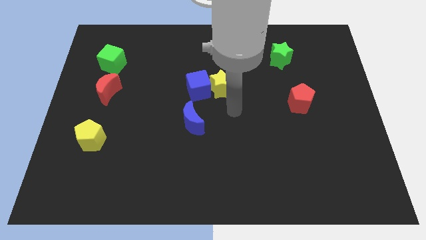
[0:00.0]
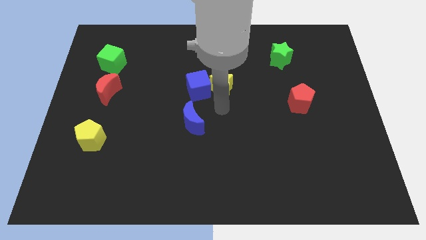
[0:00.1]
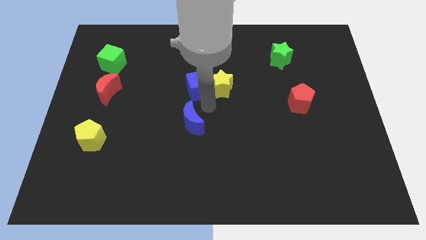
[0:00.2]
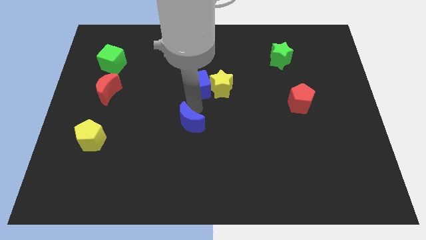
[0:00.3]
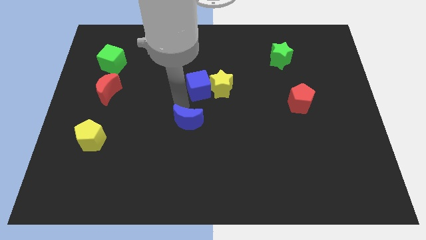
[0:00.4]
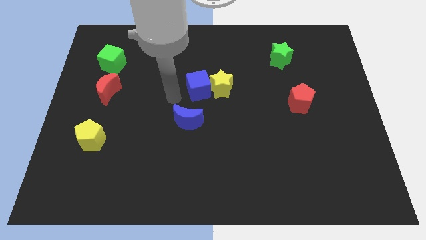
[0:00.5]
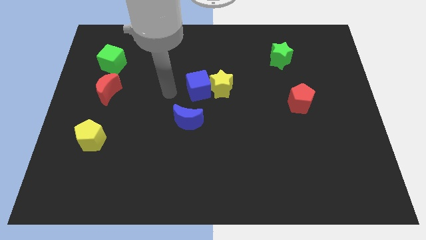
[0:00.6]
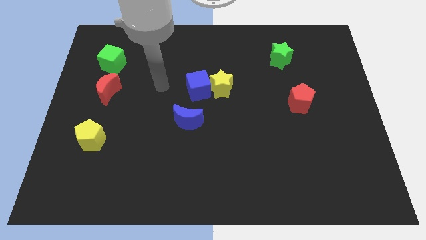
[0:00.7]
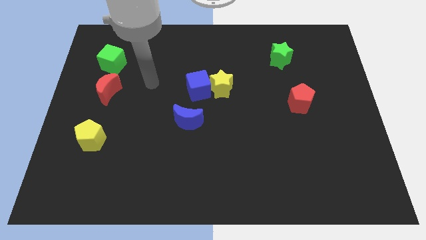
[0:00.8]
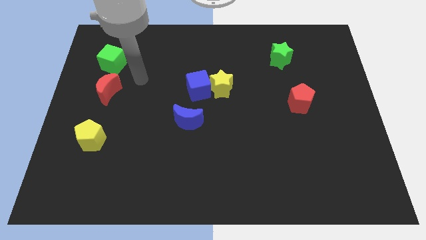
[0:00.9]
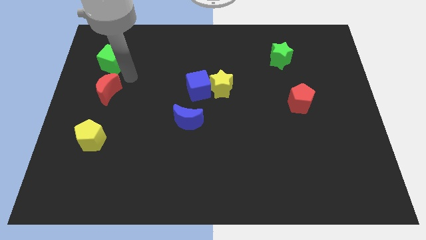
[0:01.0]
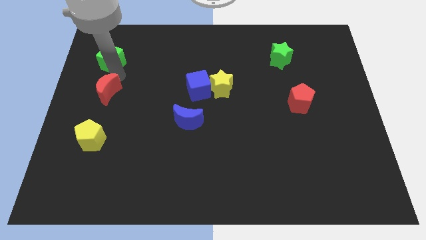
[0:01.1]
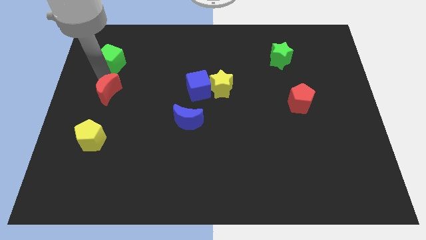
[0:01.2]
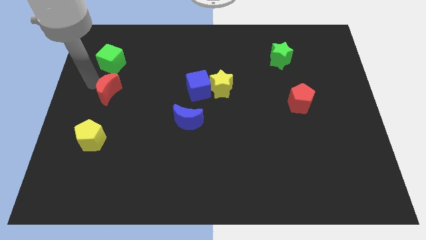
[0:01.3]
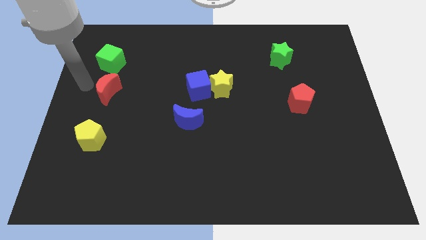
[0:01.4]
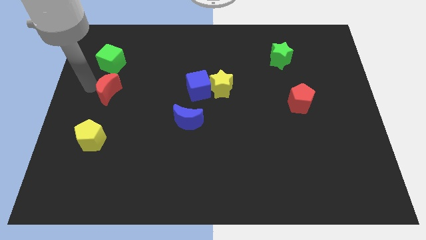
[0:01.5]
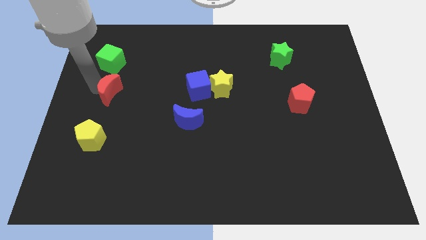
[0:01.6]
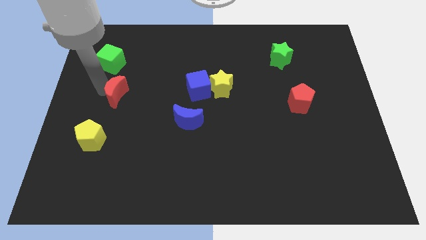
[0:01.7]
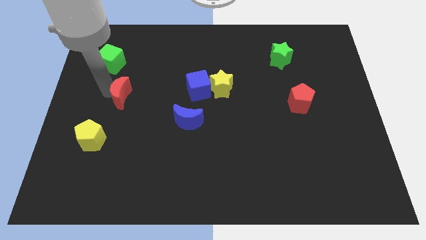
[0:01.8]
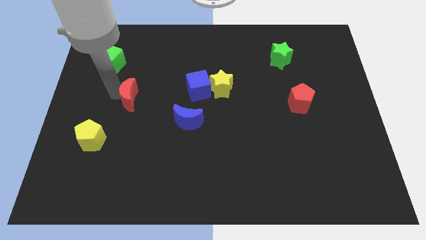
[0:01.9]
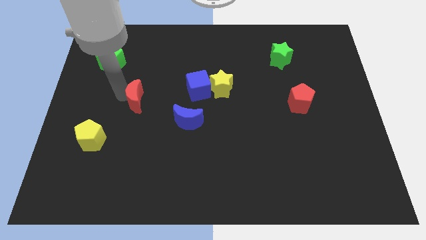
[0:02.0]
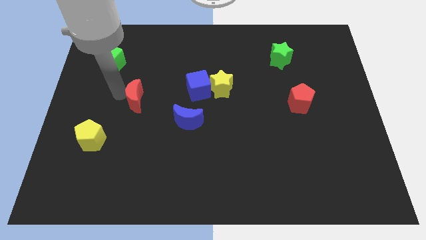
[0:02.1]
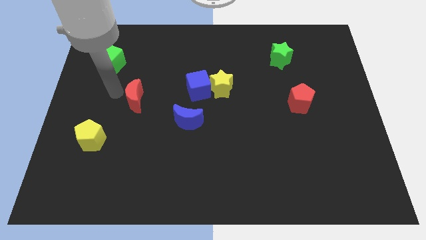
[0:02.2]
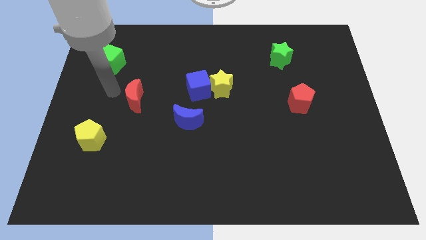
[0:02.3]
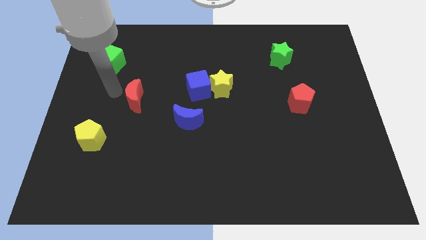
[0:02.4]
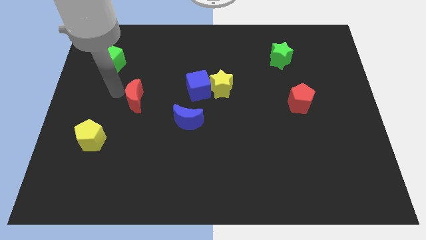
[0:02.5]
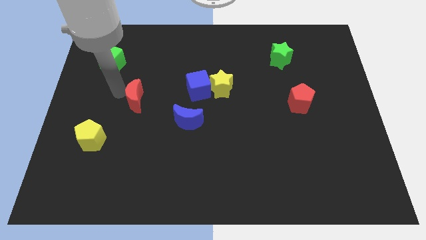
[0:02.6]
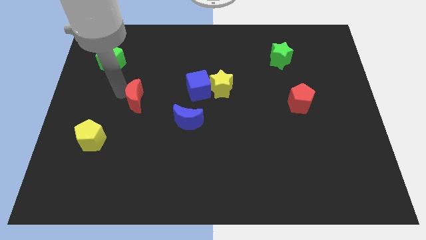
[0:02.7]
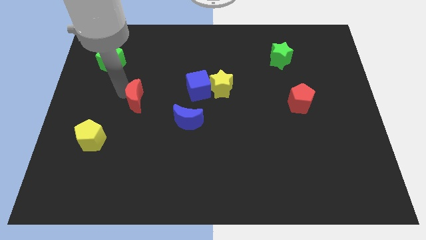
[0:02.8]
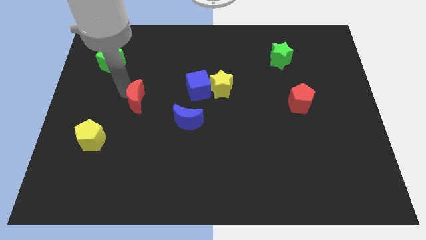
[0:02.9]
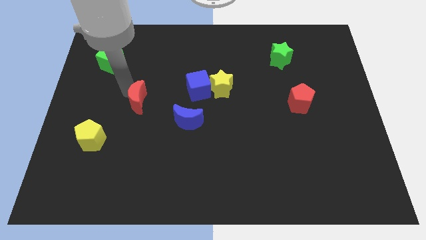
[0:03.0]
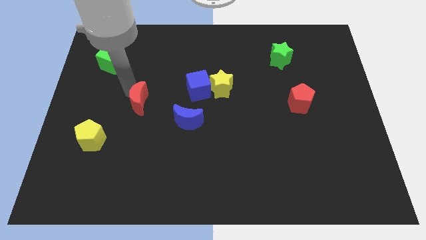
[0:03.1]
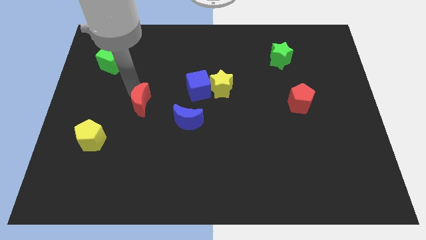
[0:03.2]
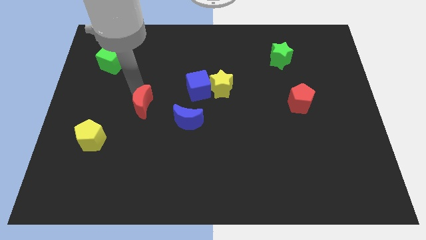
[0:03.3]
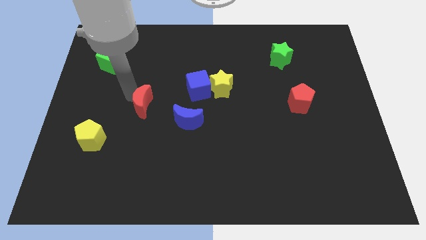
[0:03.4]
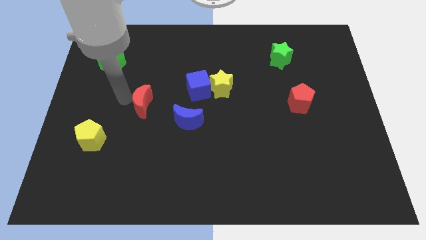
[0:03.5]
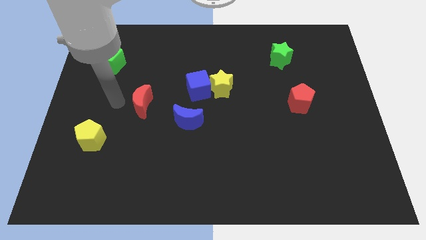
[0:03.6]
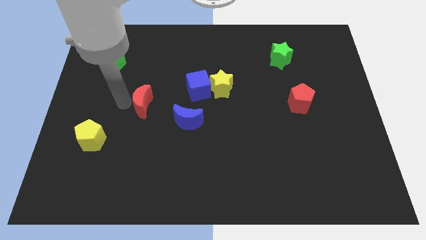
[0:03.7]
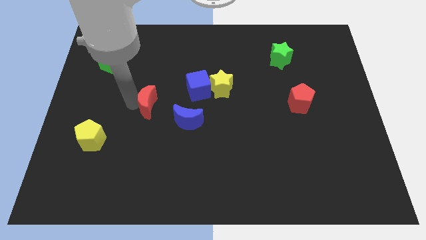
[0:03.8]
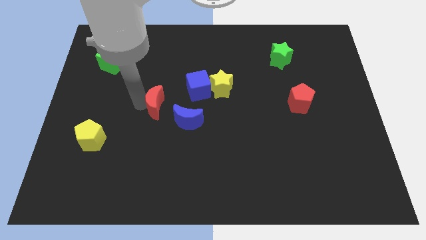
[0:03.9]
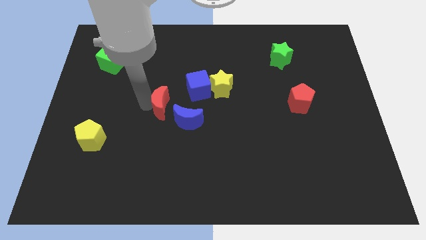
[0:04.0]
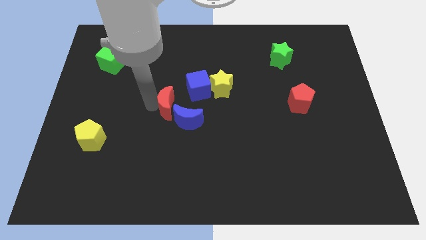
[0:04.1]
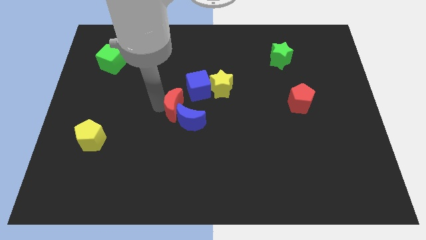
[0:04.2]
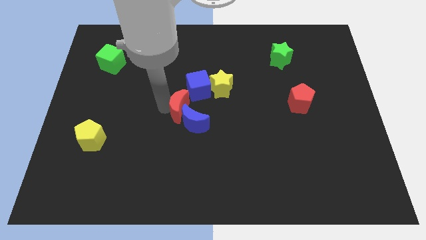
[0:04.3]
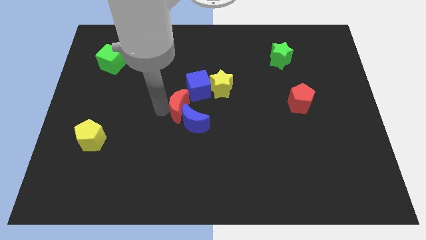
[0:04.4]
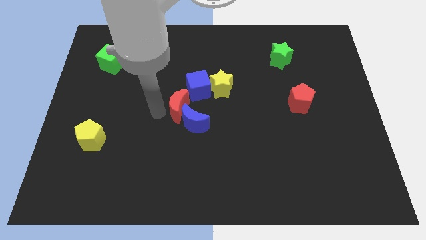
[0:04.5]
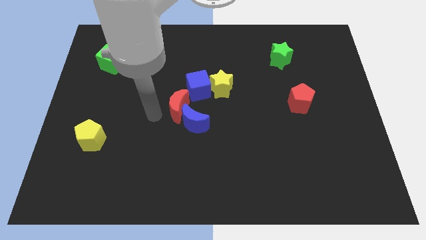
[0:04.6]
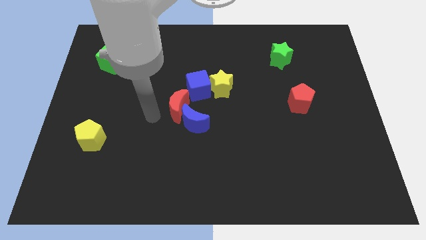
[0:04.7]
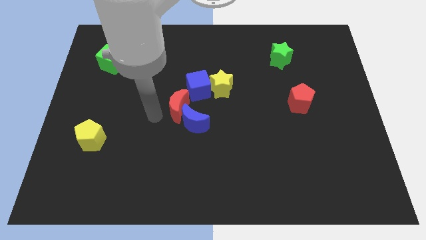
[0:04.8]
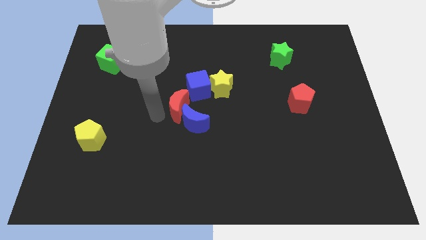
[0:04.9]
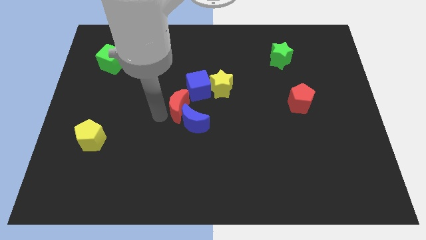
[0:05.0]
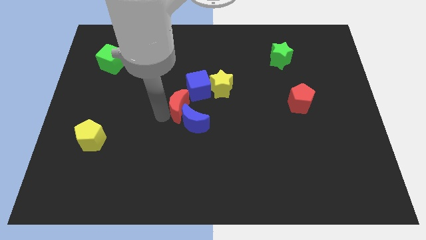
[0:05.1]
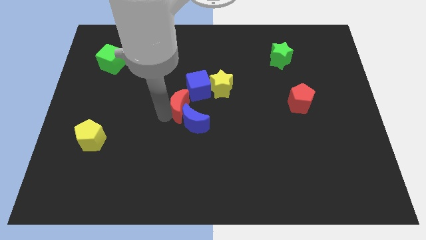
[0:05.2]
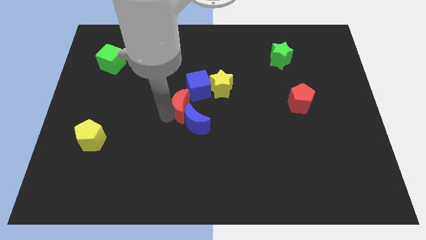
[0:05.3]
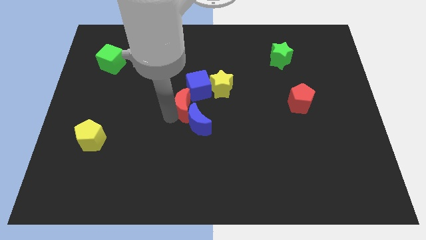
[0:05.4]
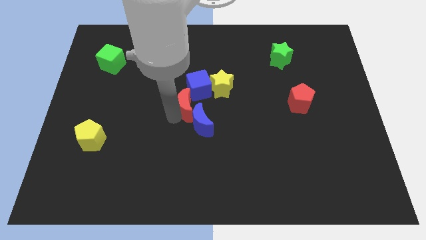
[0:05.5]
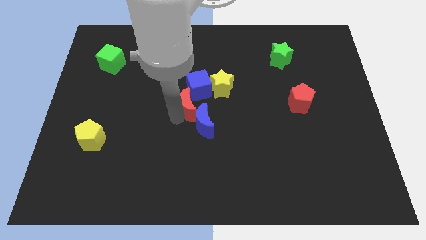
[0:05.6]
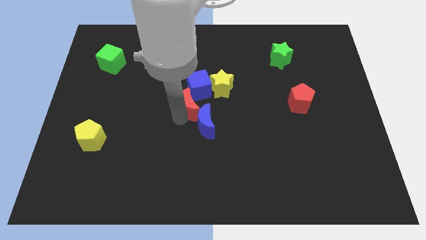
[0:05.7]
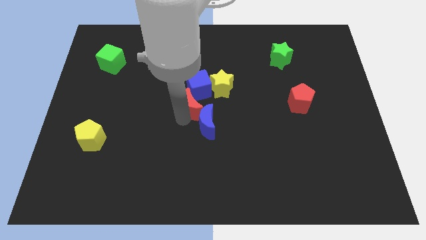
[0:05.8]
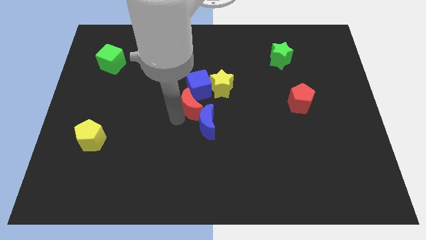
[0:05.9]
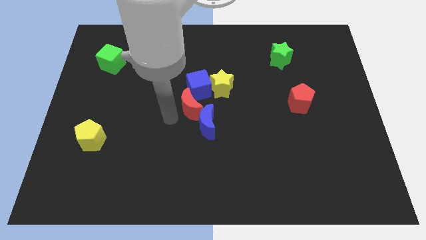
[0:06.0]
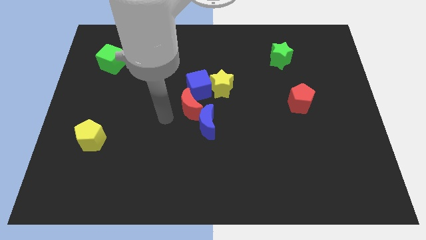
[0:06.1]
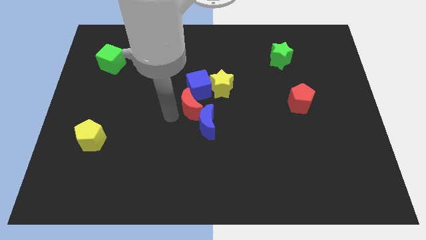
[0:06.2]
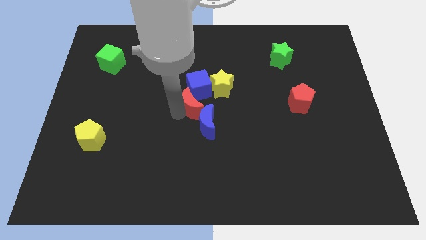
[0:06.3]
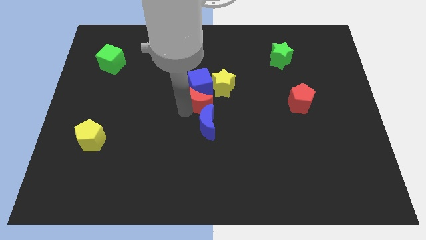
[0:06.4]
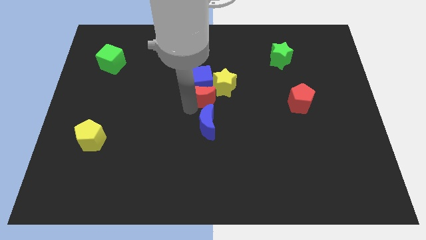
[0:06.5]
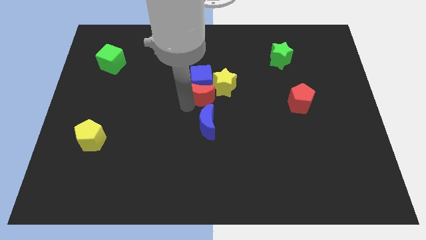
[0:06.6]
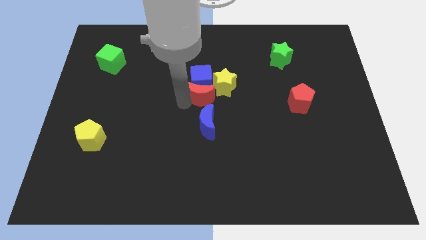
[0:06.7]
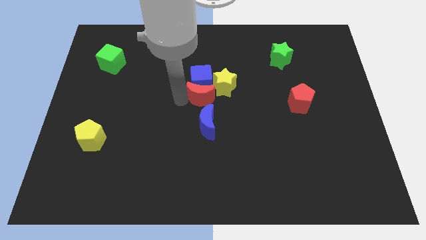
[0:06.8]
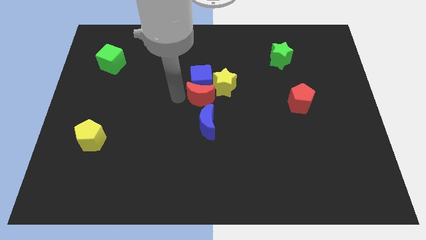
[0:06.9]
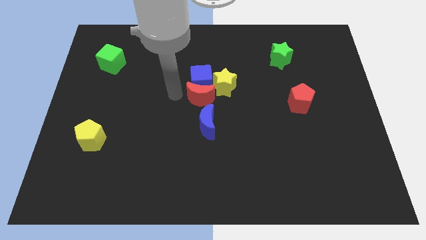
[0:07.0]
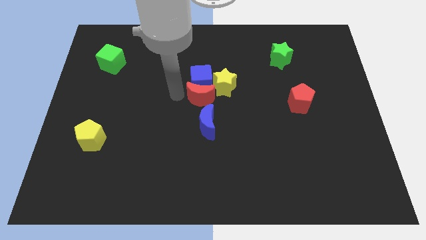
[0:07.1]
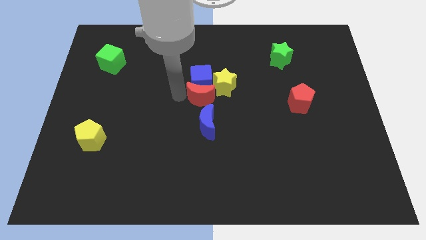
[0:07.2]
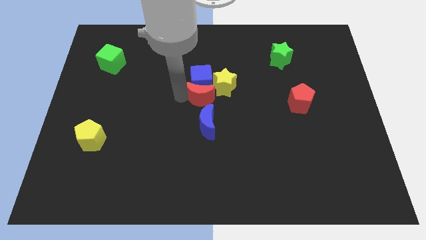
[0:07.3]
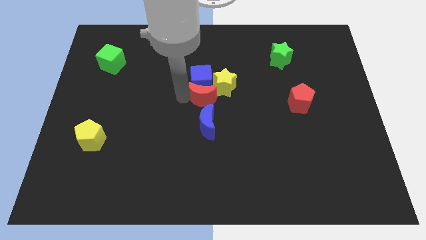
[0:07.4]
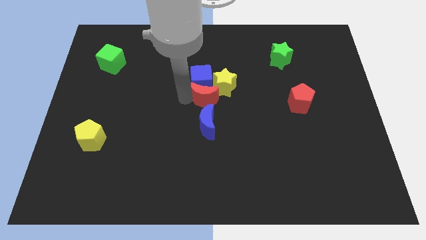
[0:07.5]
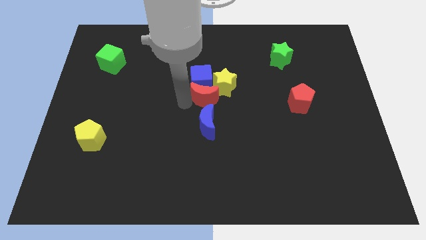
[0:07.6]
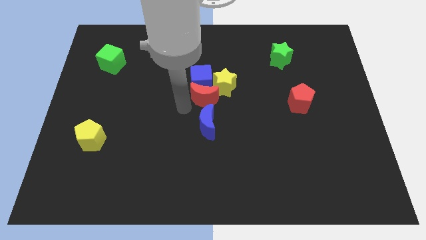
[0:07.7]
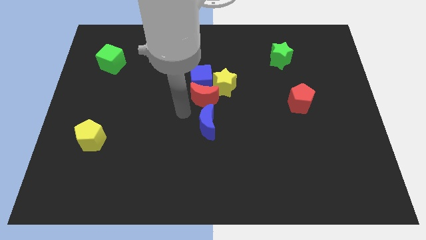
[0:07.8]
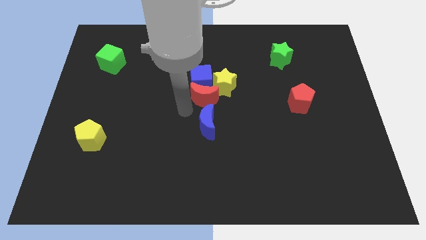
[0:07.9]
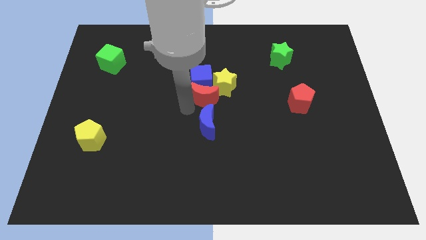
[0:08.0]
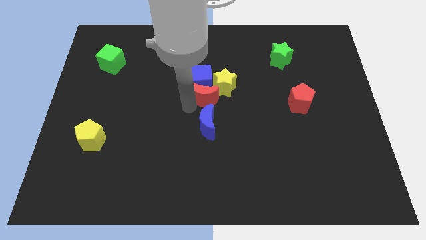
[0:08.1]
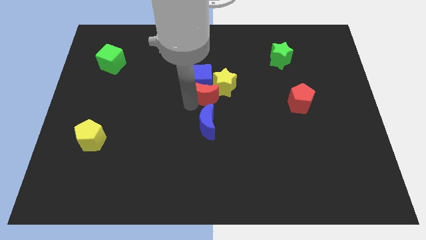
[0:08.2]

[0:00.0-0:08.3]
put the red moon to the yellow star
